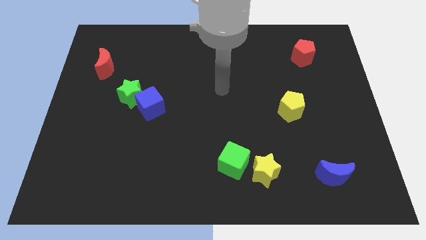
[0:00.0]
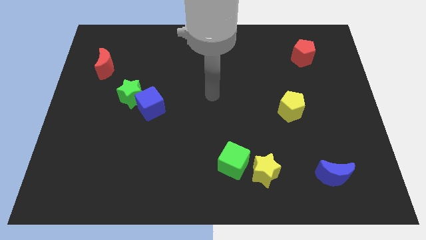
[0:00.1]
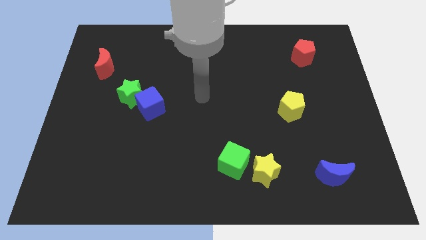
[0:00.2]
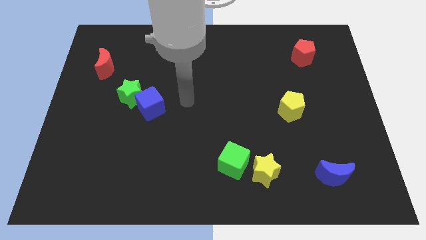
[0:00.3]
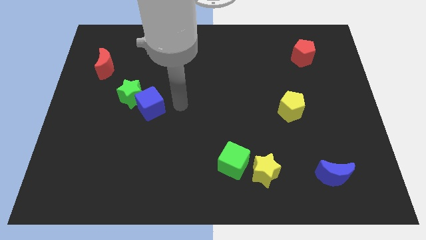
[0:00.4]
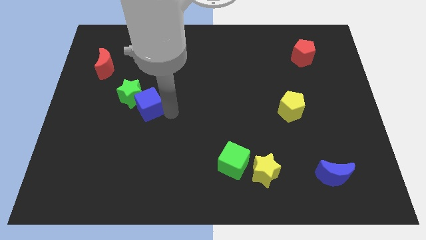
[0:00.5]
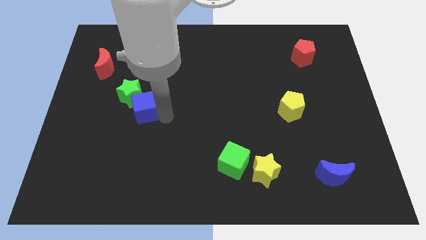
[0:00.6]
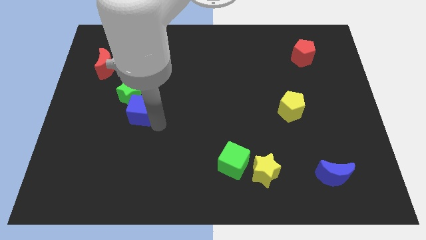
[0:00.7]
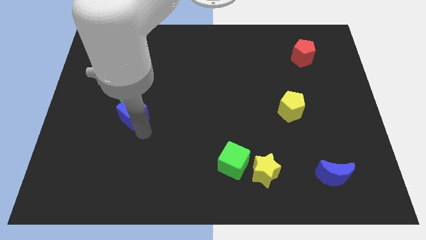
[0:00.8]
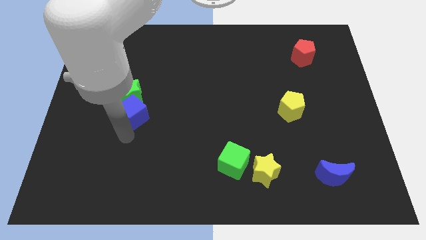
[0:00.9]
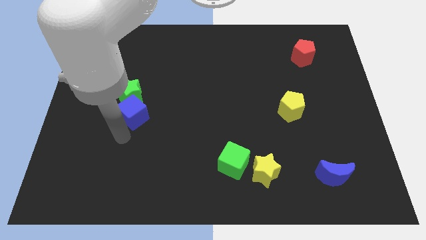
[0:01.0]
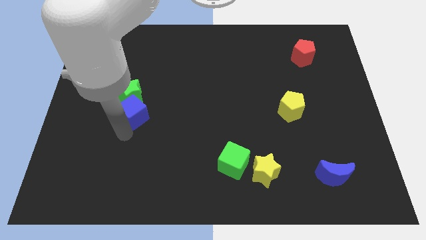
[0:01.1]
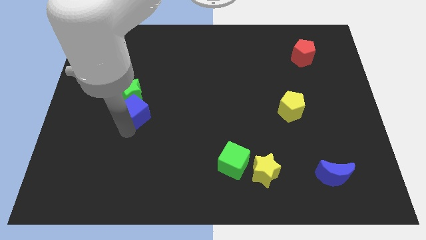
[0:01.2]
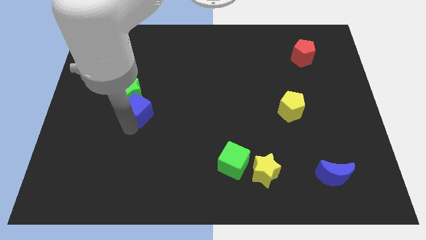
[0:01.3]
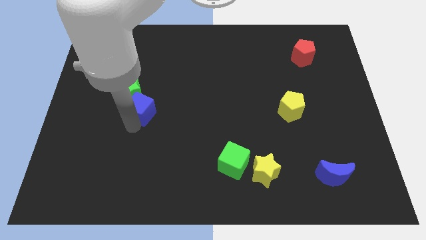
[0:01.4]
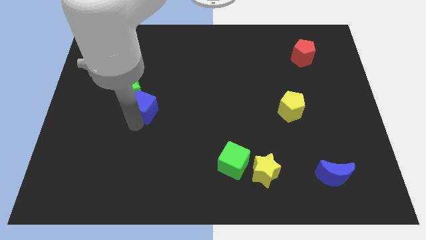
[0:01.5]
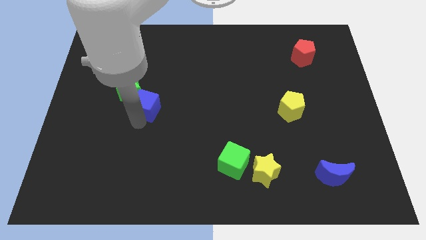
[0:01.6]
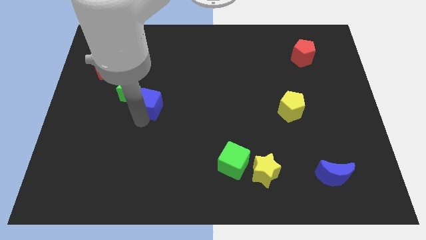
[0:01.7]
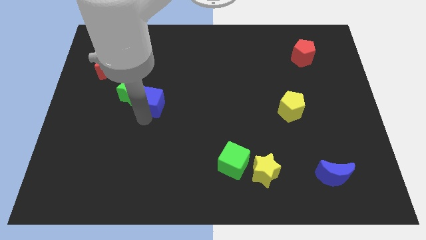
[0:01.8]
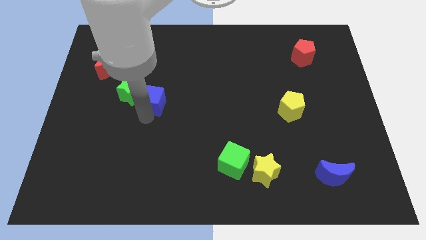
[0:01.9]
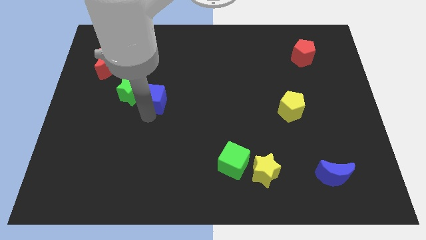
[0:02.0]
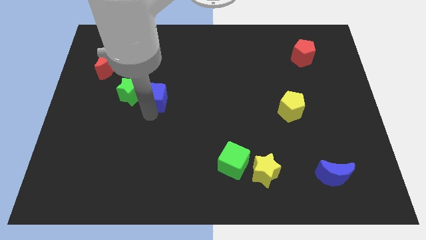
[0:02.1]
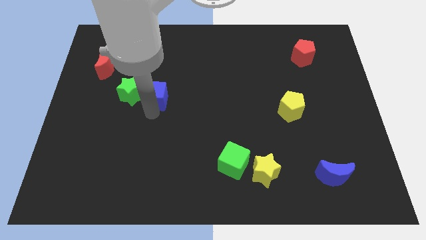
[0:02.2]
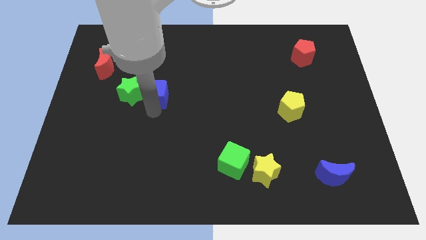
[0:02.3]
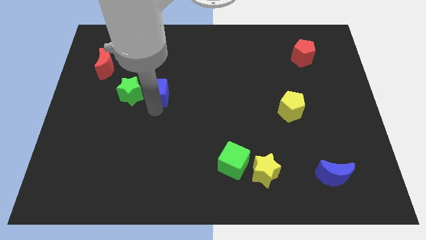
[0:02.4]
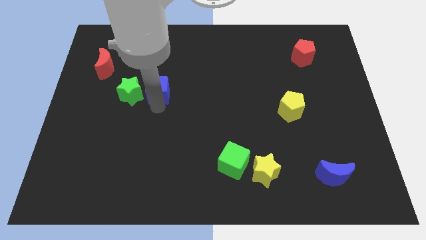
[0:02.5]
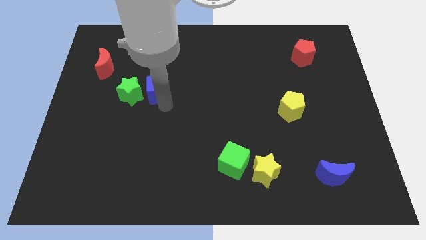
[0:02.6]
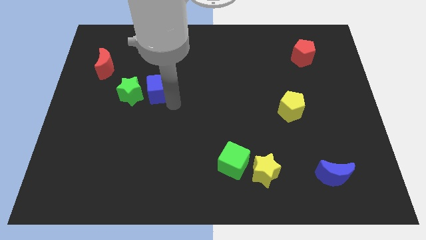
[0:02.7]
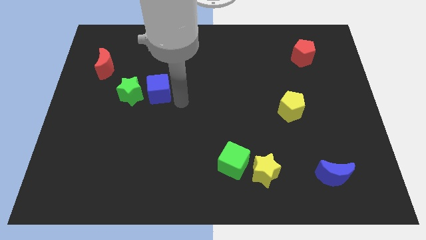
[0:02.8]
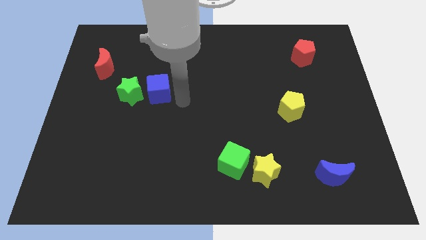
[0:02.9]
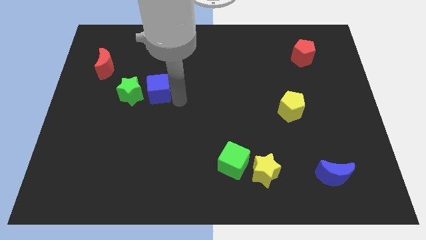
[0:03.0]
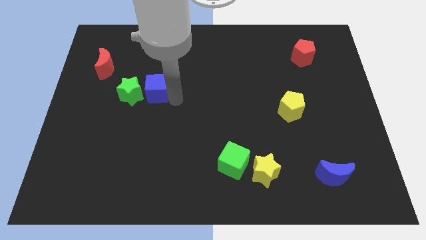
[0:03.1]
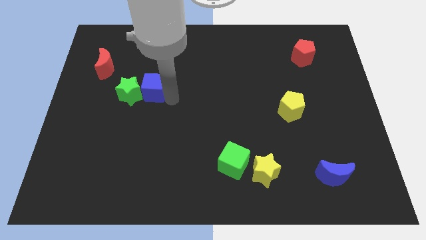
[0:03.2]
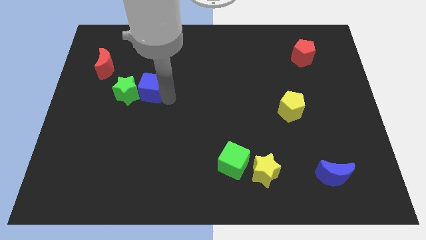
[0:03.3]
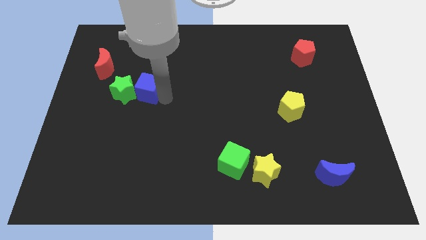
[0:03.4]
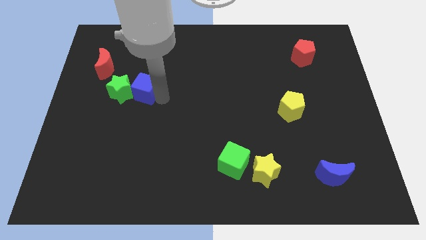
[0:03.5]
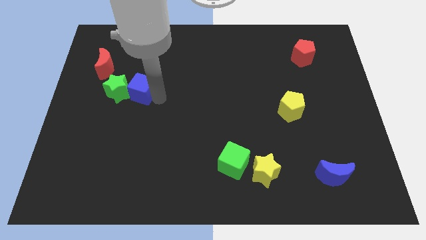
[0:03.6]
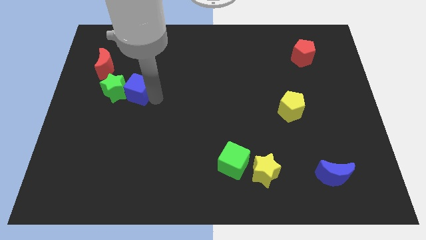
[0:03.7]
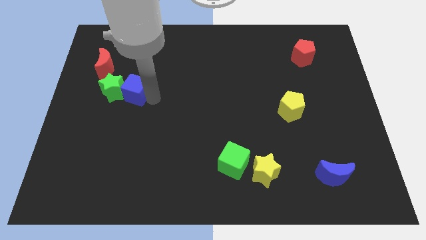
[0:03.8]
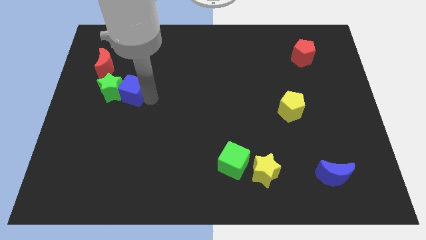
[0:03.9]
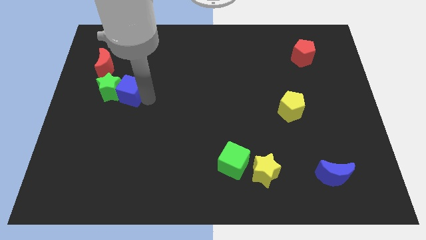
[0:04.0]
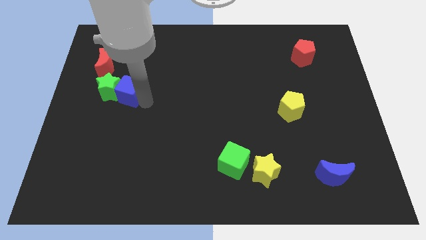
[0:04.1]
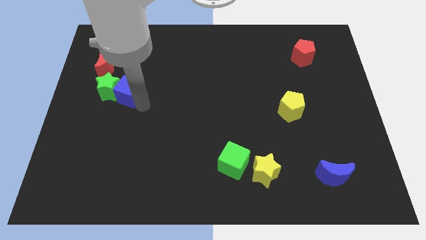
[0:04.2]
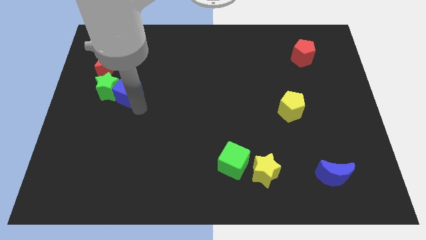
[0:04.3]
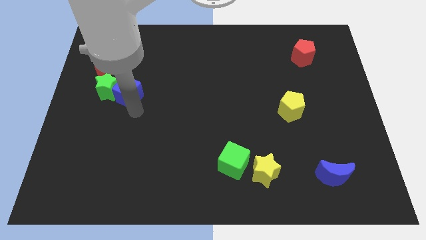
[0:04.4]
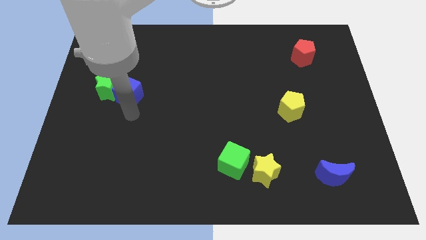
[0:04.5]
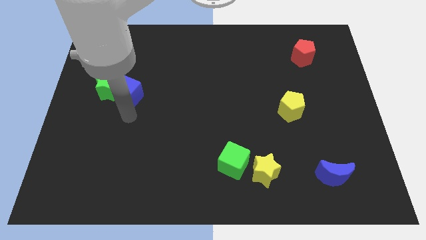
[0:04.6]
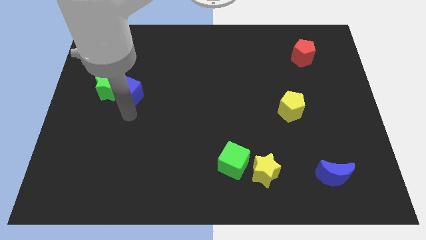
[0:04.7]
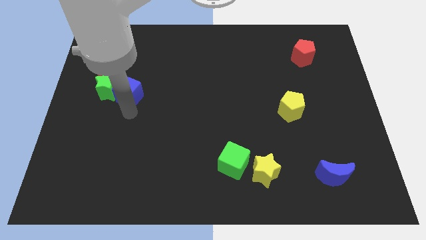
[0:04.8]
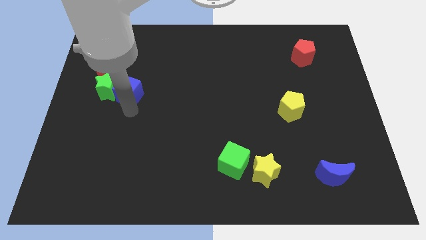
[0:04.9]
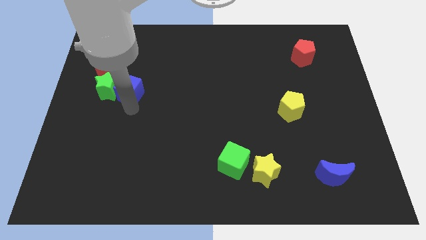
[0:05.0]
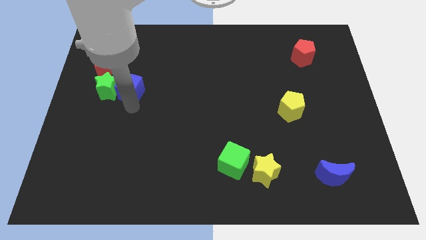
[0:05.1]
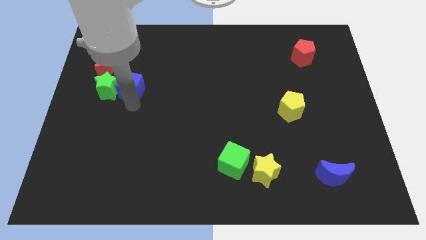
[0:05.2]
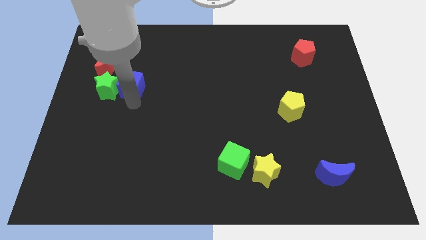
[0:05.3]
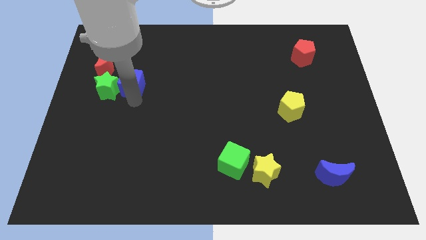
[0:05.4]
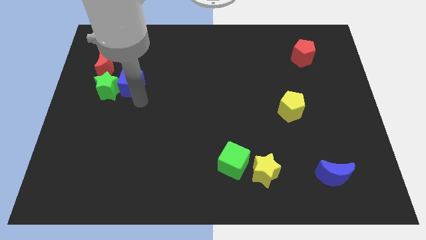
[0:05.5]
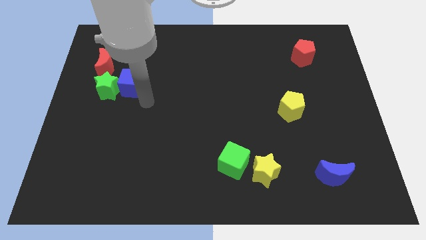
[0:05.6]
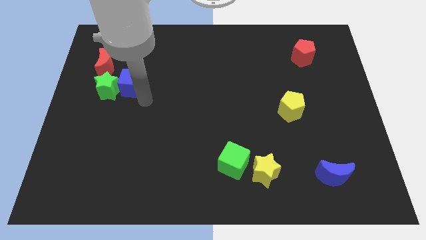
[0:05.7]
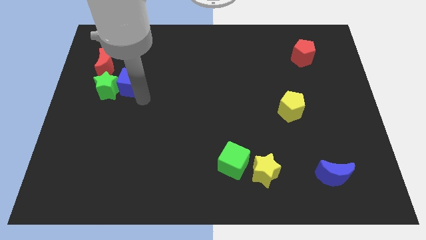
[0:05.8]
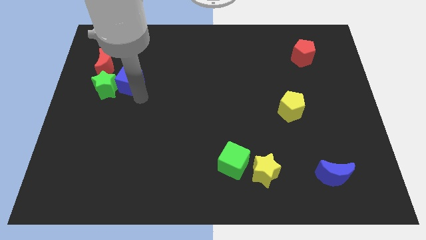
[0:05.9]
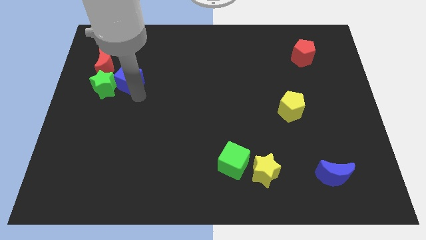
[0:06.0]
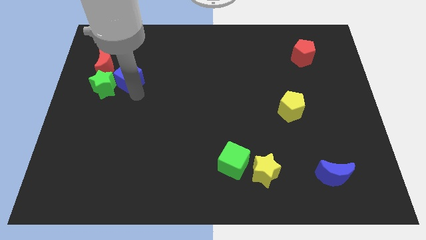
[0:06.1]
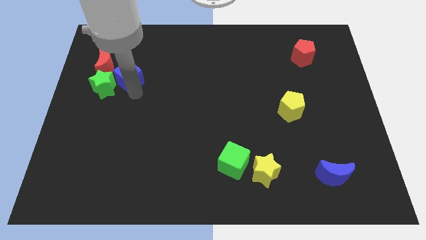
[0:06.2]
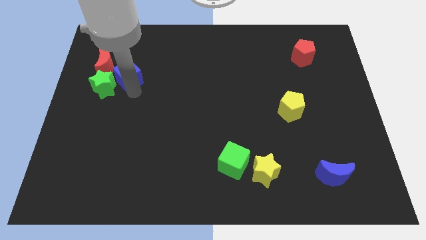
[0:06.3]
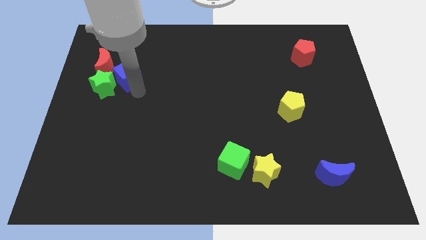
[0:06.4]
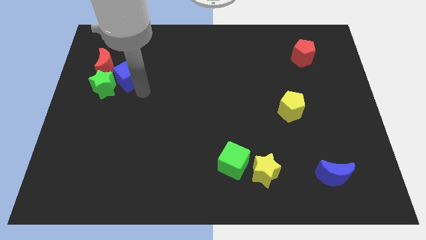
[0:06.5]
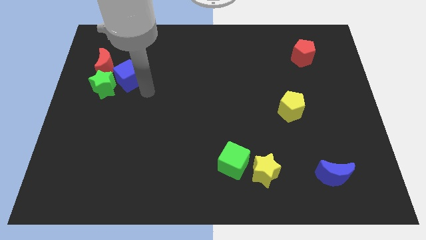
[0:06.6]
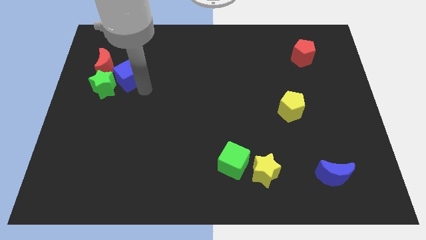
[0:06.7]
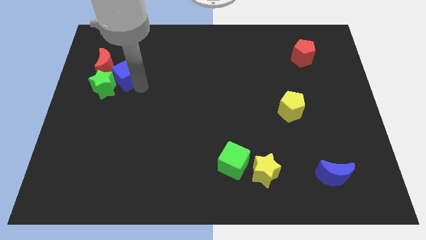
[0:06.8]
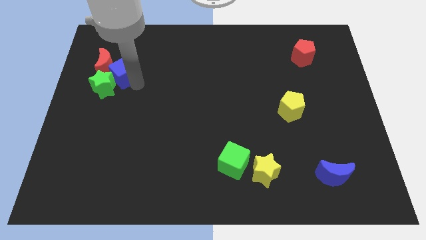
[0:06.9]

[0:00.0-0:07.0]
push the blue cube to the red moon
